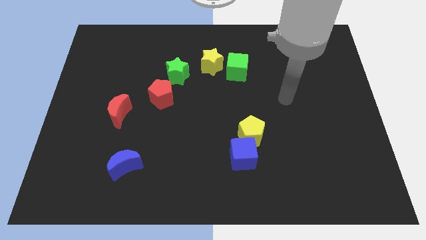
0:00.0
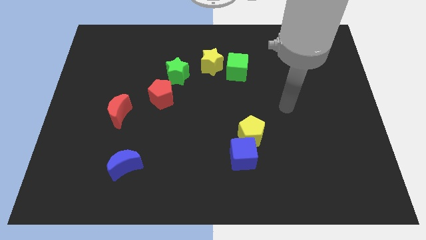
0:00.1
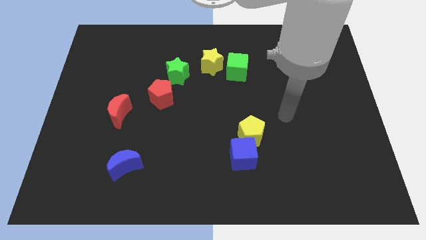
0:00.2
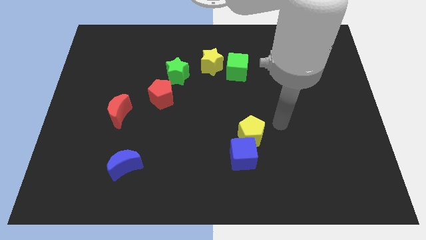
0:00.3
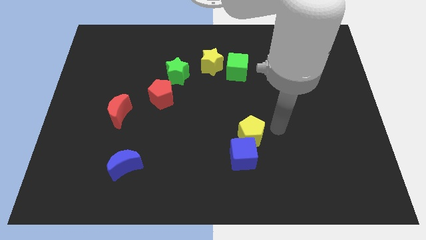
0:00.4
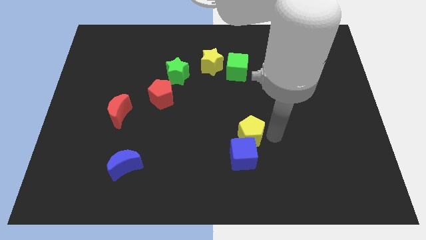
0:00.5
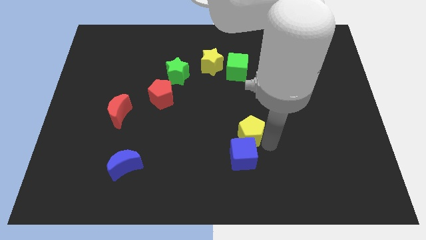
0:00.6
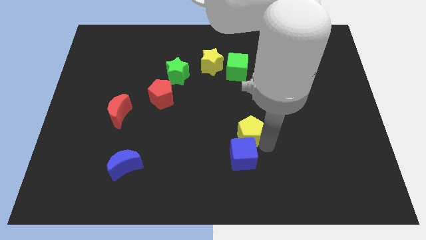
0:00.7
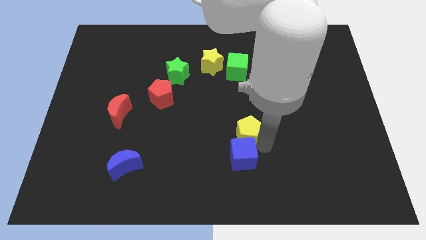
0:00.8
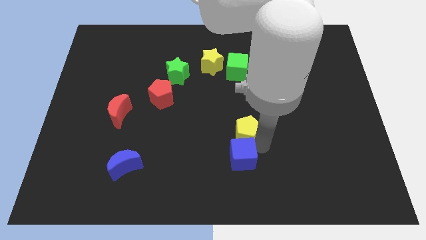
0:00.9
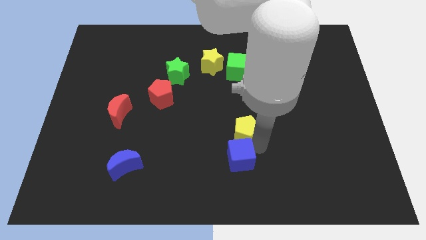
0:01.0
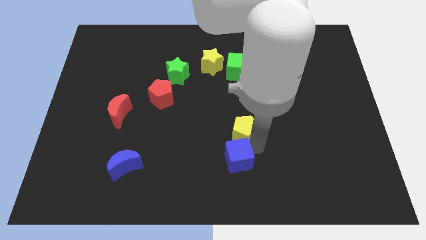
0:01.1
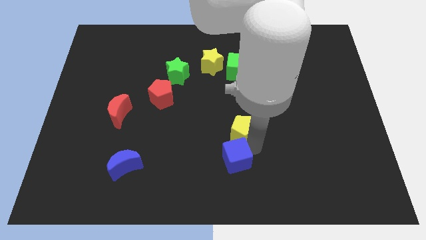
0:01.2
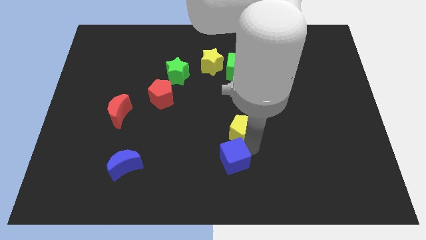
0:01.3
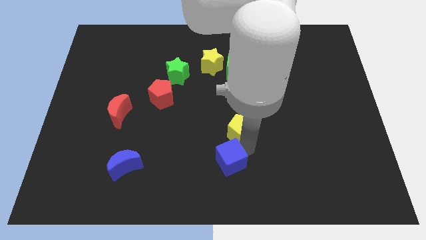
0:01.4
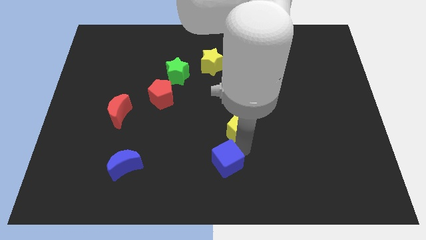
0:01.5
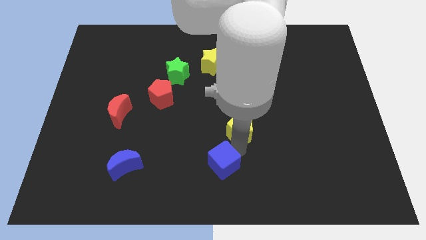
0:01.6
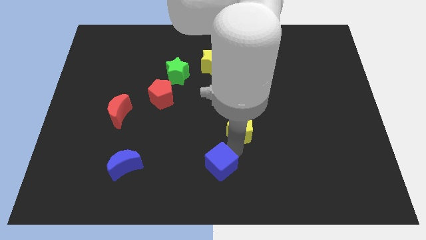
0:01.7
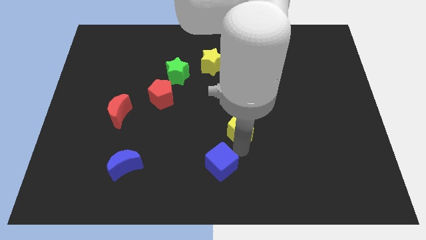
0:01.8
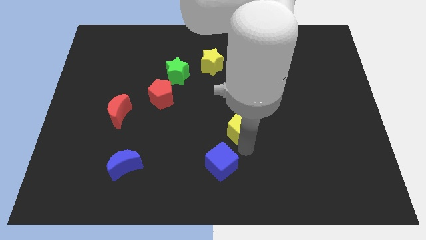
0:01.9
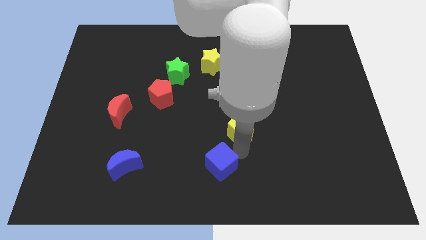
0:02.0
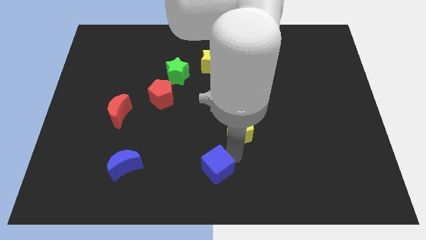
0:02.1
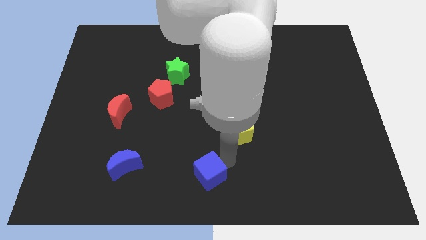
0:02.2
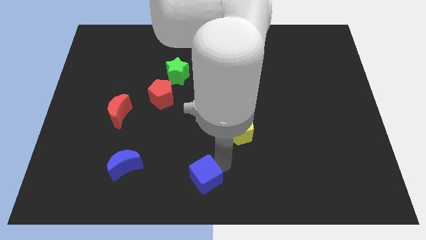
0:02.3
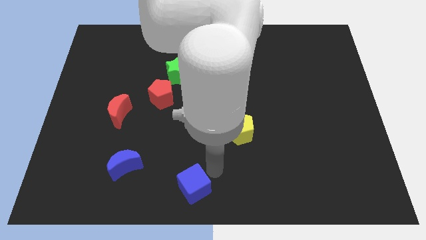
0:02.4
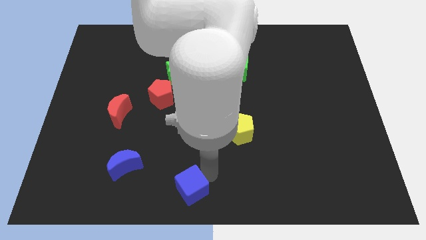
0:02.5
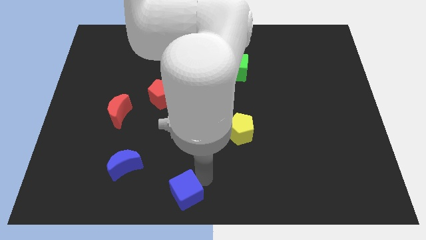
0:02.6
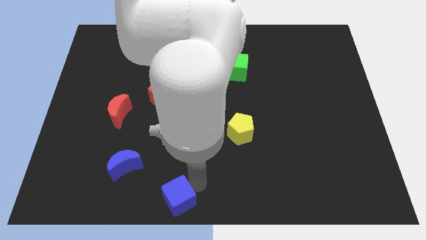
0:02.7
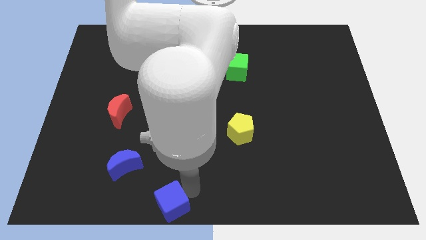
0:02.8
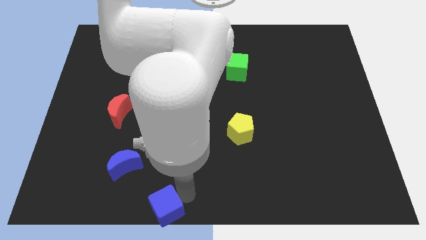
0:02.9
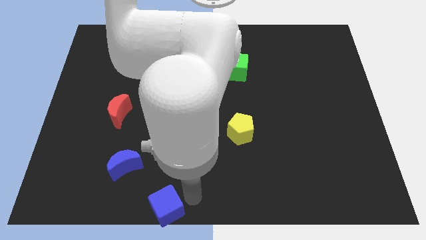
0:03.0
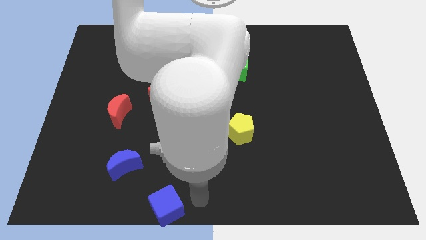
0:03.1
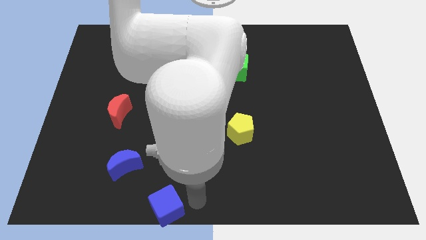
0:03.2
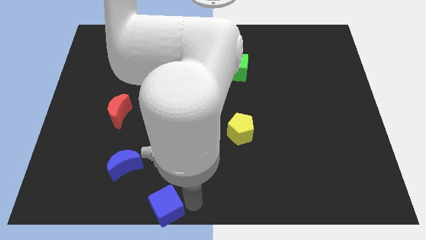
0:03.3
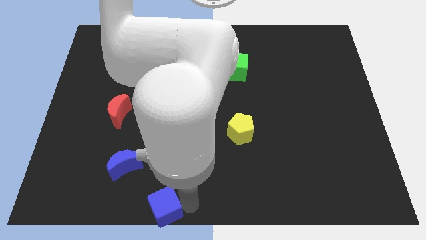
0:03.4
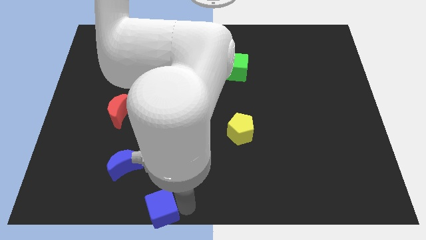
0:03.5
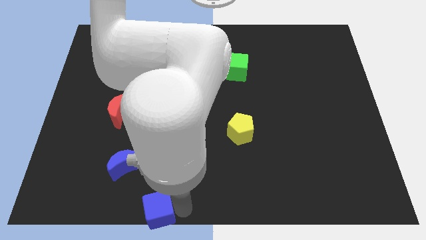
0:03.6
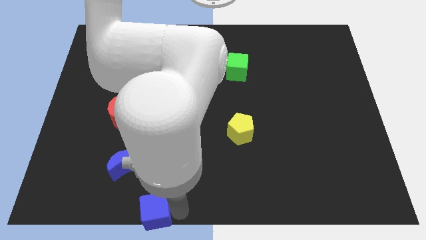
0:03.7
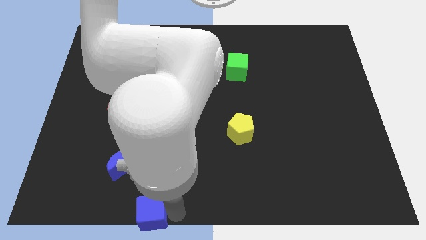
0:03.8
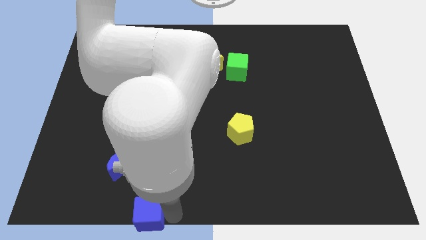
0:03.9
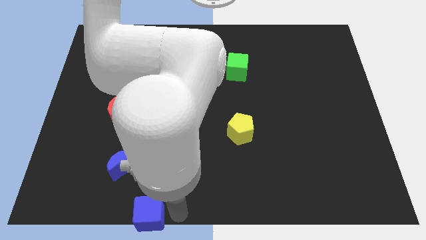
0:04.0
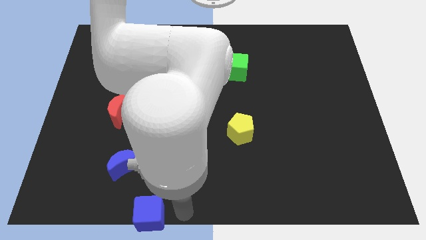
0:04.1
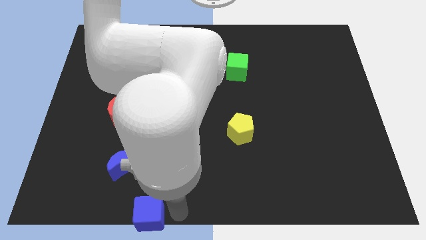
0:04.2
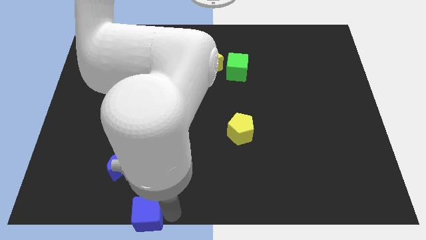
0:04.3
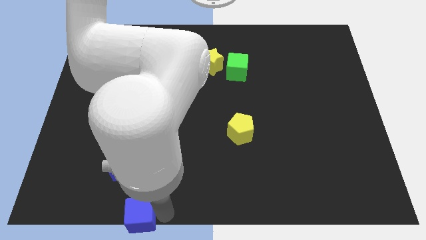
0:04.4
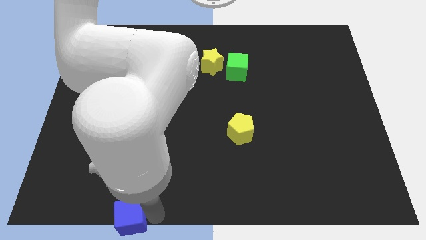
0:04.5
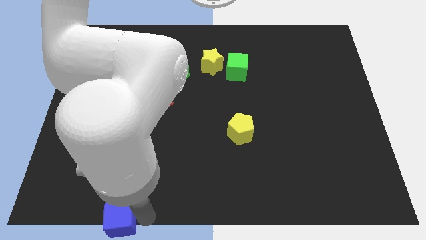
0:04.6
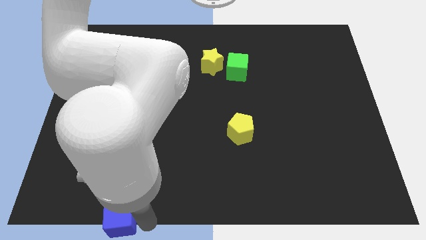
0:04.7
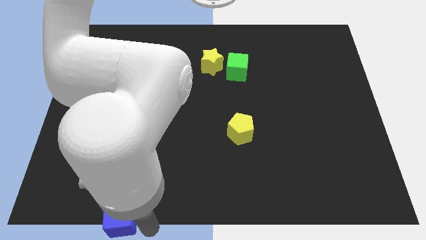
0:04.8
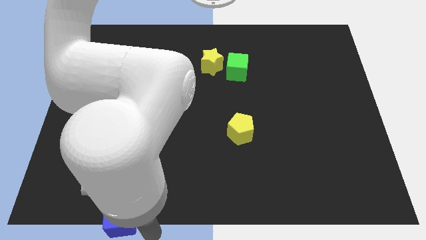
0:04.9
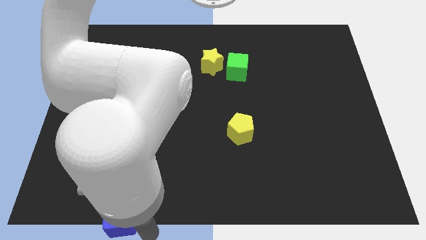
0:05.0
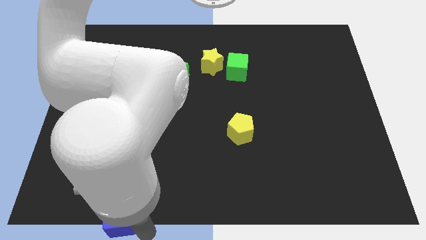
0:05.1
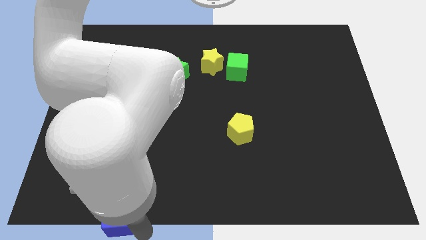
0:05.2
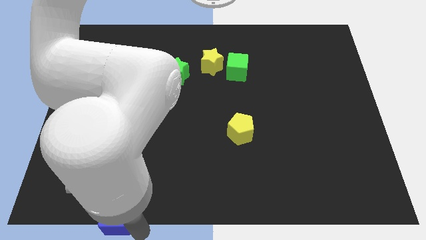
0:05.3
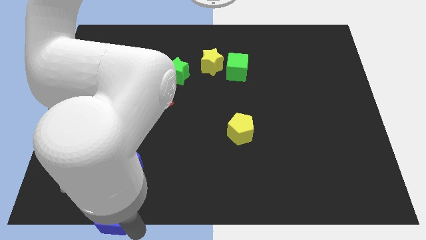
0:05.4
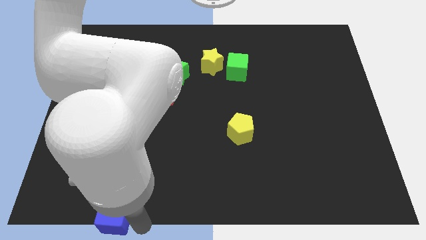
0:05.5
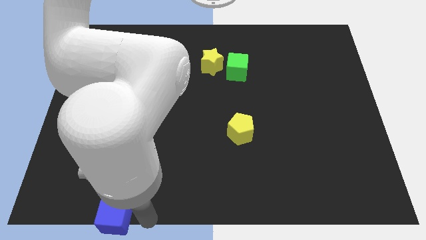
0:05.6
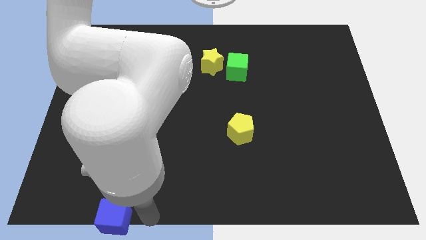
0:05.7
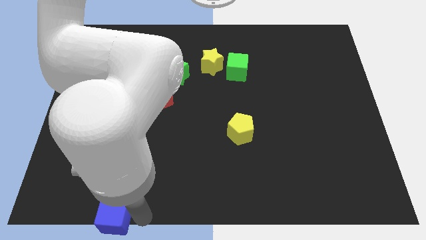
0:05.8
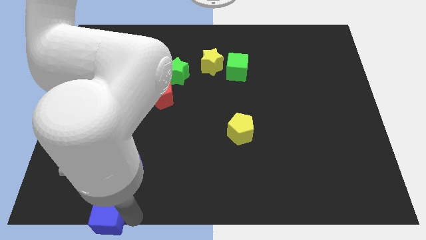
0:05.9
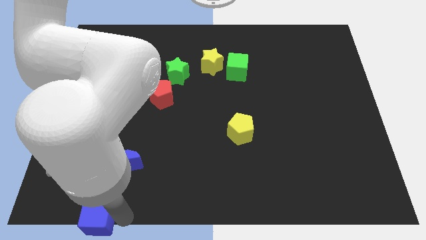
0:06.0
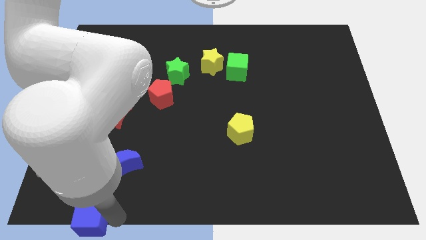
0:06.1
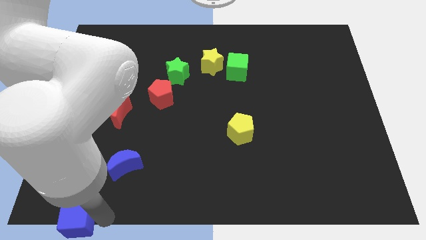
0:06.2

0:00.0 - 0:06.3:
push the blue cube to the lower left corner

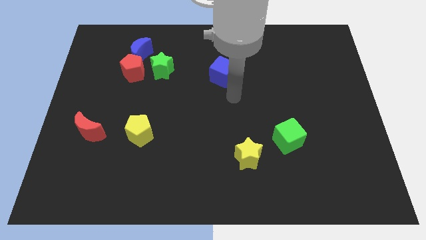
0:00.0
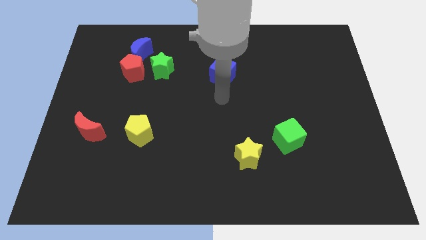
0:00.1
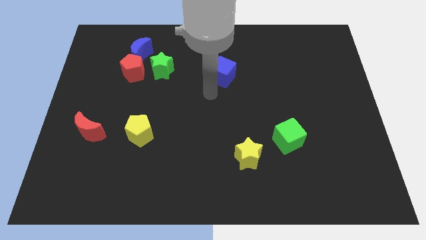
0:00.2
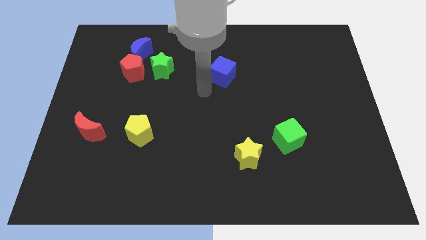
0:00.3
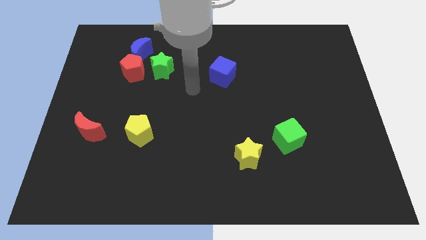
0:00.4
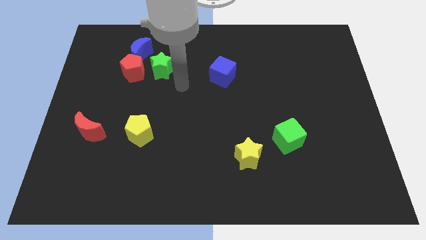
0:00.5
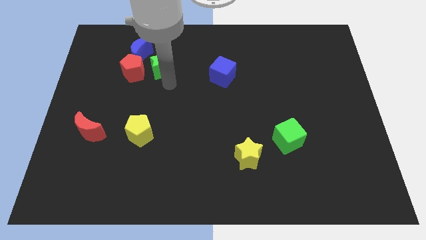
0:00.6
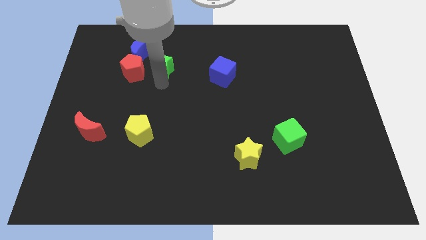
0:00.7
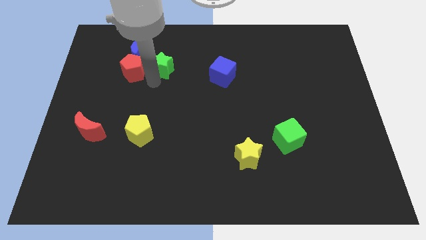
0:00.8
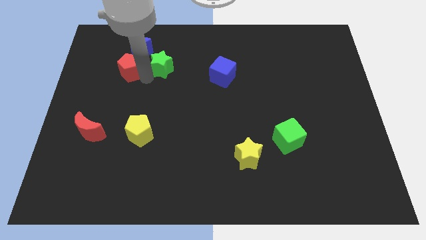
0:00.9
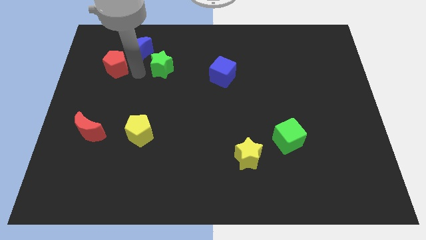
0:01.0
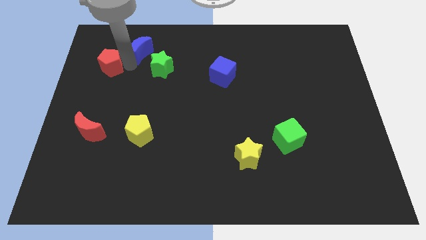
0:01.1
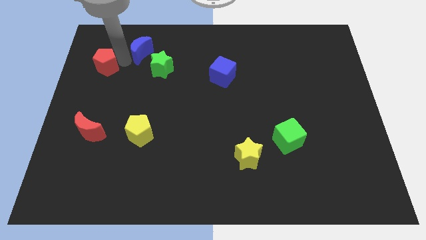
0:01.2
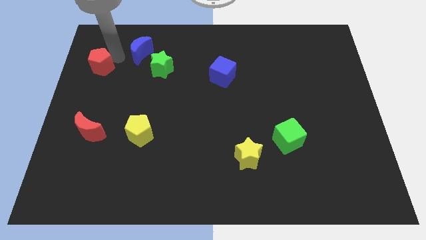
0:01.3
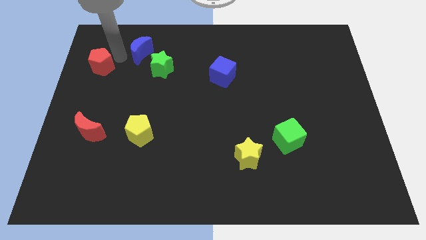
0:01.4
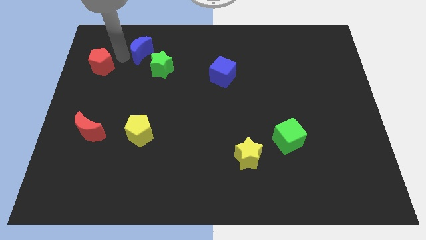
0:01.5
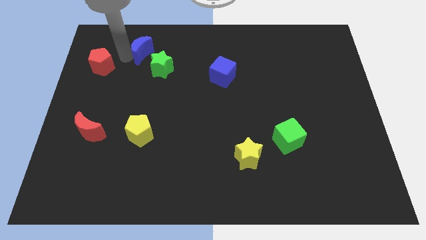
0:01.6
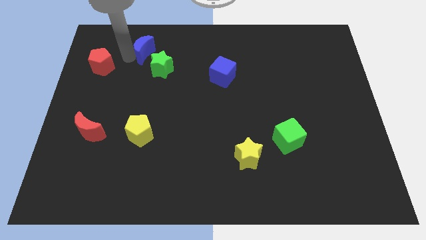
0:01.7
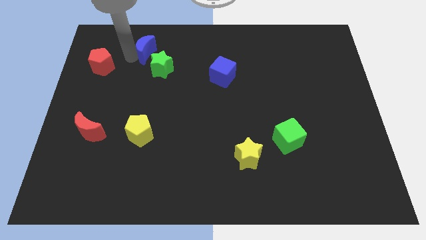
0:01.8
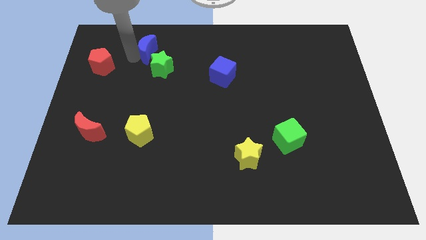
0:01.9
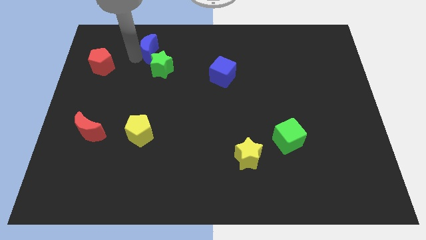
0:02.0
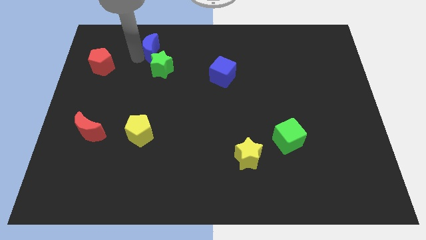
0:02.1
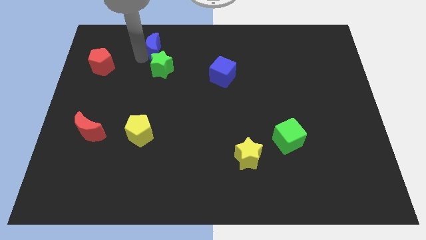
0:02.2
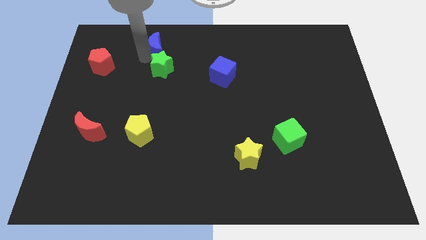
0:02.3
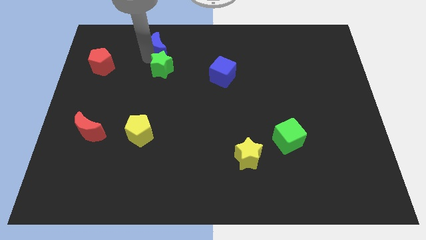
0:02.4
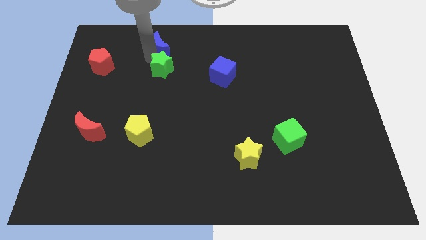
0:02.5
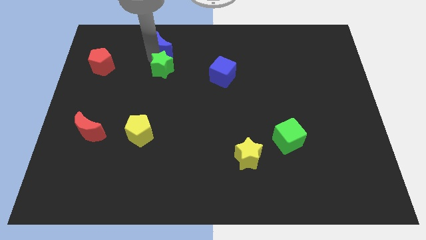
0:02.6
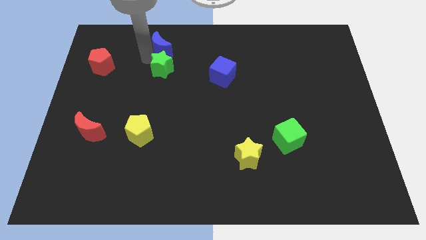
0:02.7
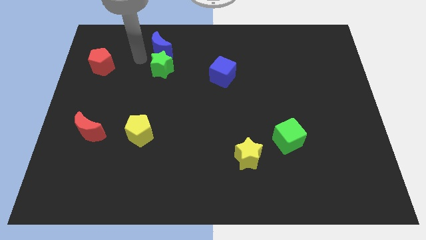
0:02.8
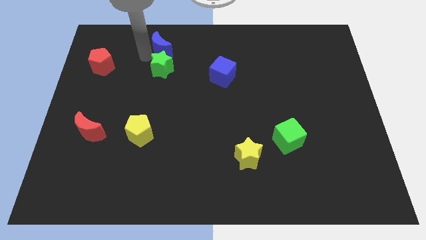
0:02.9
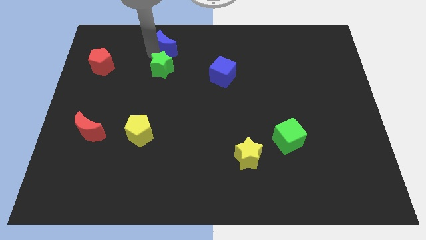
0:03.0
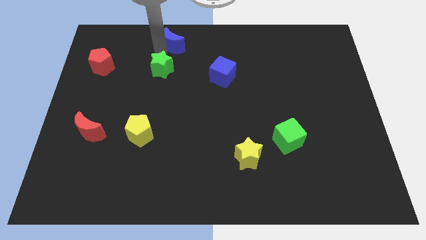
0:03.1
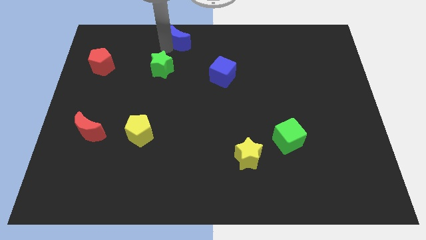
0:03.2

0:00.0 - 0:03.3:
push the blue moon to the towards your base
